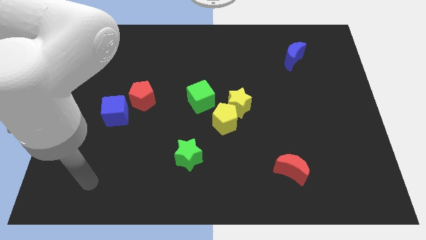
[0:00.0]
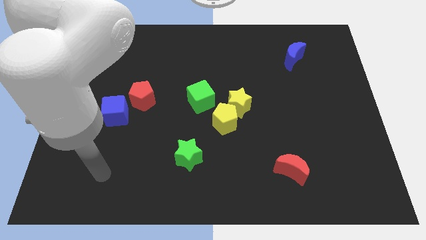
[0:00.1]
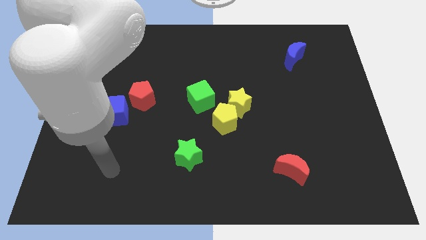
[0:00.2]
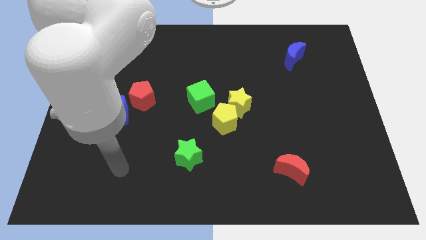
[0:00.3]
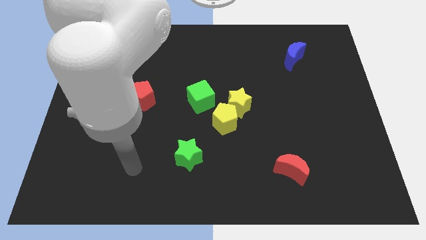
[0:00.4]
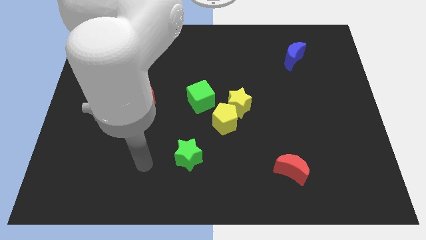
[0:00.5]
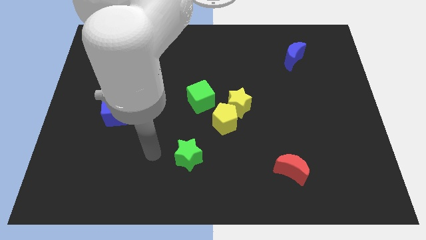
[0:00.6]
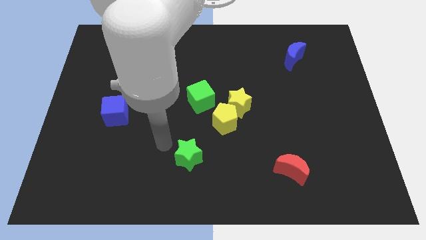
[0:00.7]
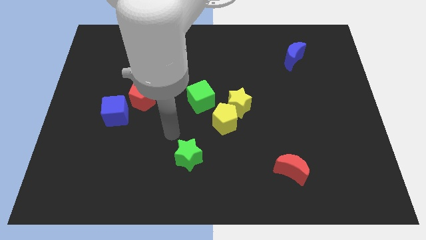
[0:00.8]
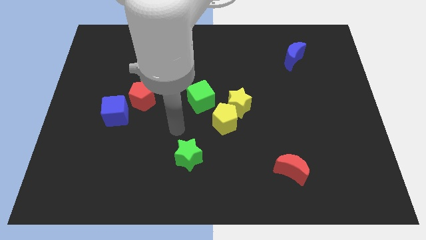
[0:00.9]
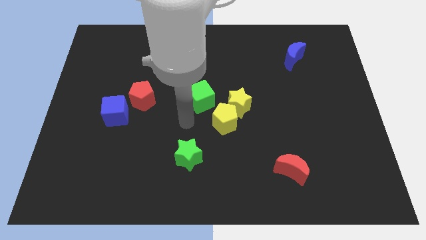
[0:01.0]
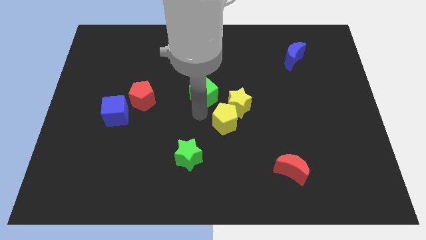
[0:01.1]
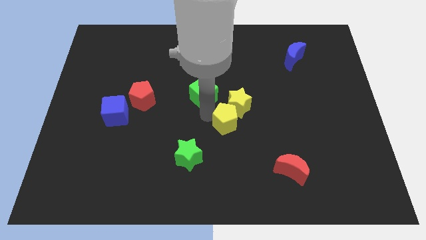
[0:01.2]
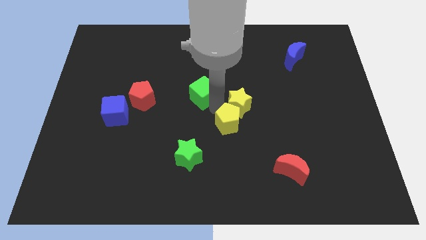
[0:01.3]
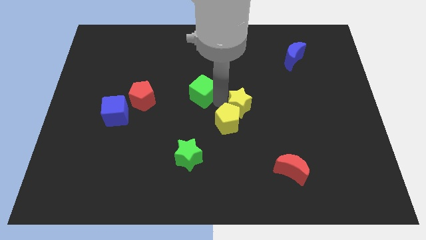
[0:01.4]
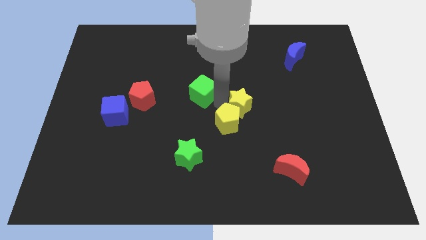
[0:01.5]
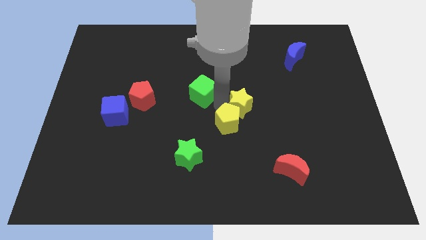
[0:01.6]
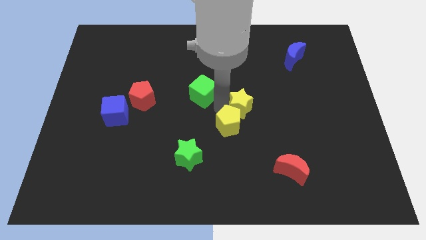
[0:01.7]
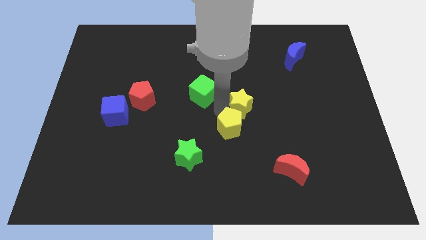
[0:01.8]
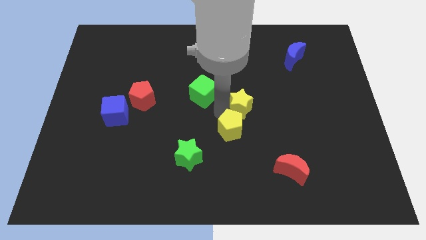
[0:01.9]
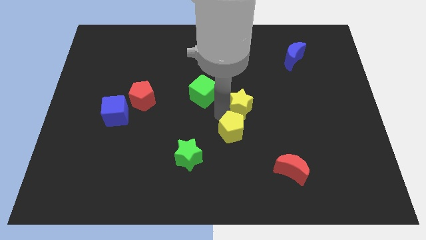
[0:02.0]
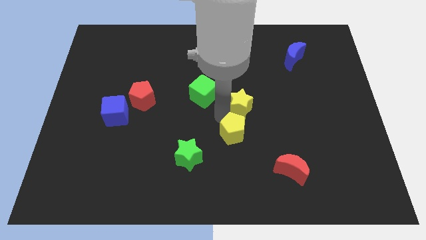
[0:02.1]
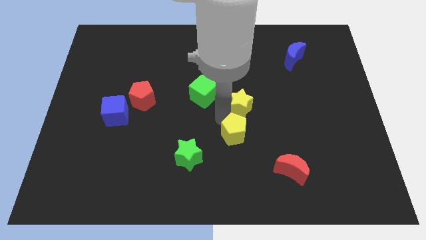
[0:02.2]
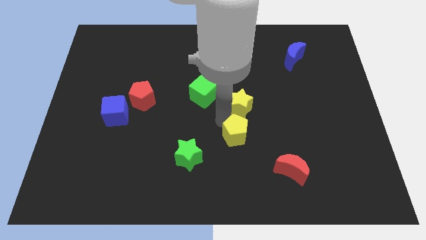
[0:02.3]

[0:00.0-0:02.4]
move the yellow pentagon away from the yellow star and green cube

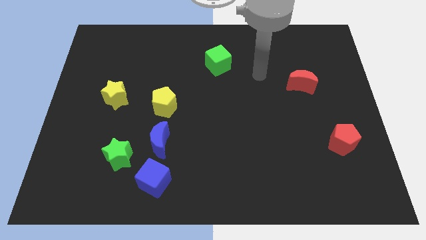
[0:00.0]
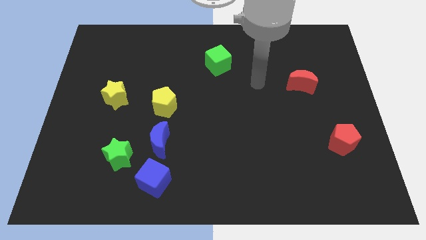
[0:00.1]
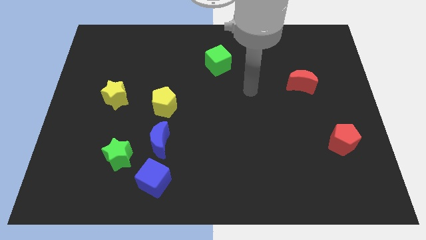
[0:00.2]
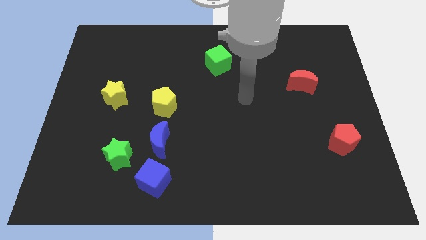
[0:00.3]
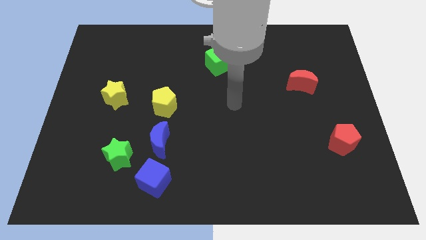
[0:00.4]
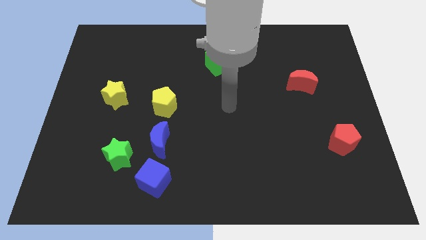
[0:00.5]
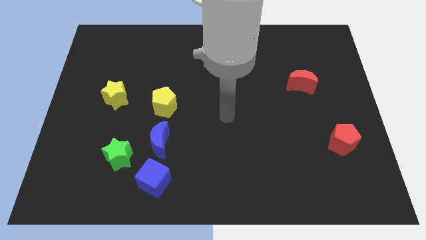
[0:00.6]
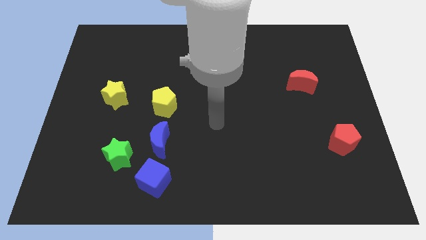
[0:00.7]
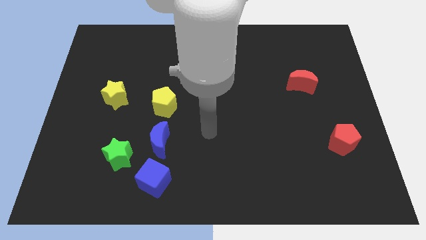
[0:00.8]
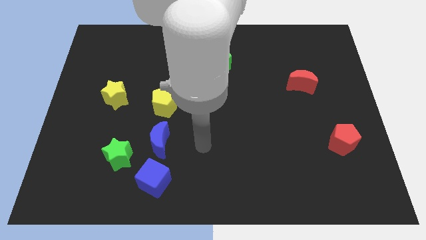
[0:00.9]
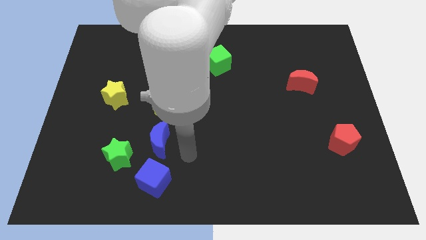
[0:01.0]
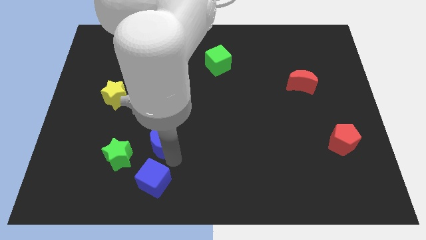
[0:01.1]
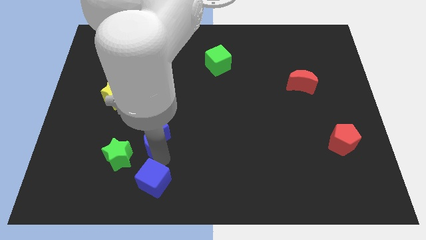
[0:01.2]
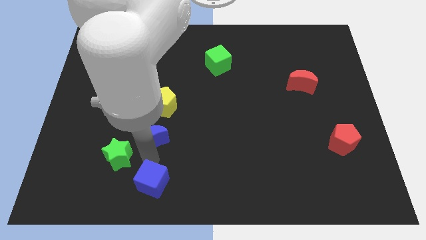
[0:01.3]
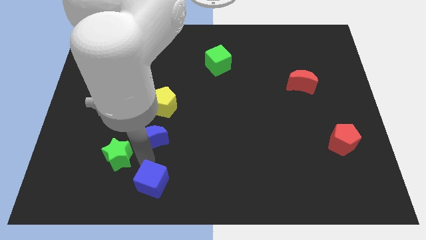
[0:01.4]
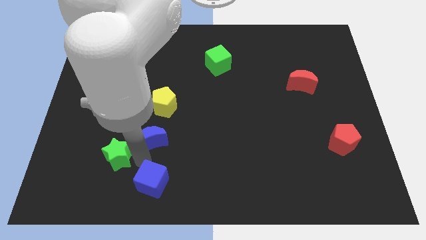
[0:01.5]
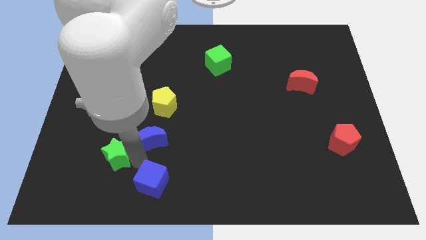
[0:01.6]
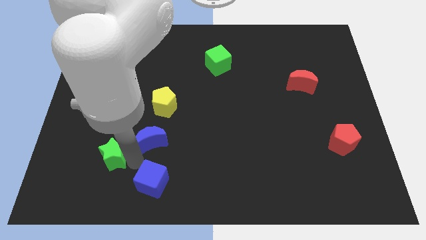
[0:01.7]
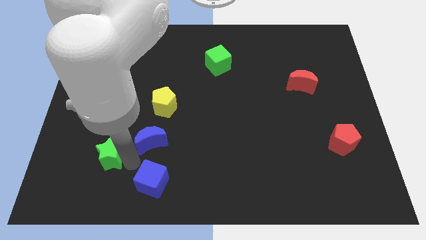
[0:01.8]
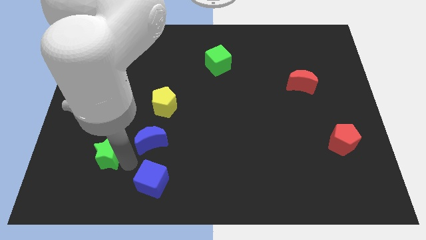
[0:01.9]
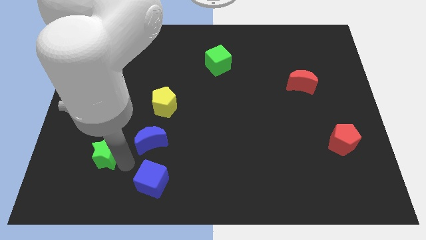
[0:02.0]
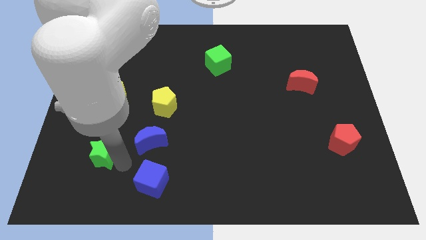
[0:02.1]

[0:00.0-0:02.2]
separate the green star from the blue moon and blue cube

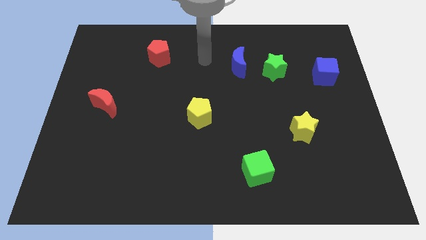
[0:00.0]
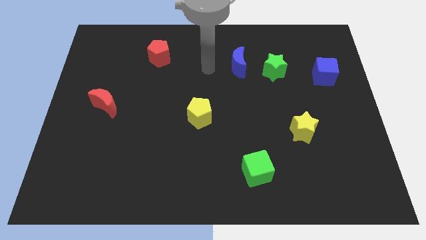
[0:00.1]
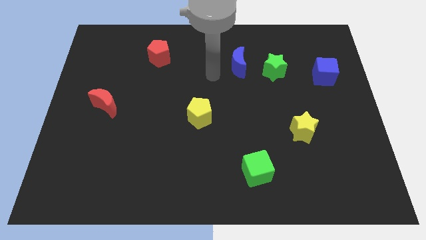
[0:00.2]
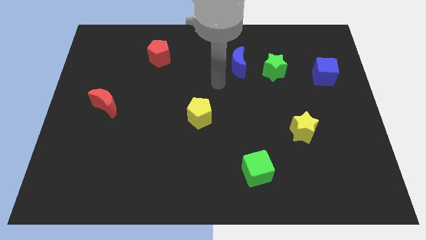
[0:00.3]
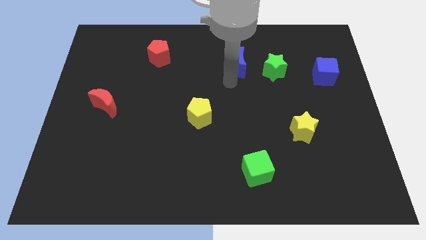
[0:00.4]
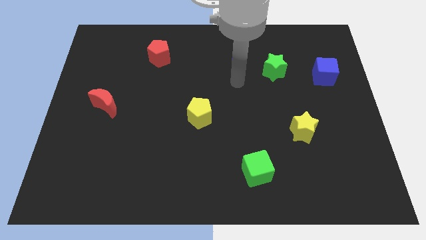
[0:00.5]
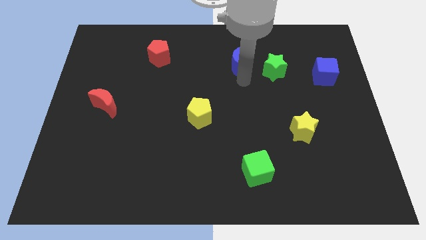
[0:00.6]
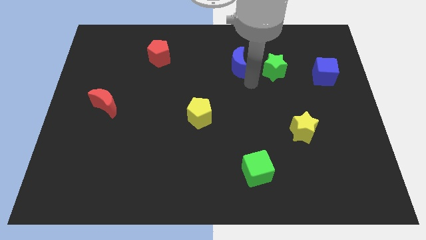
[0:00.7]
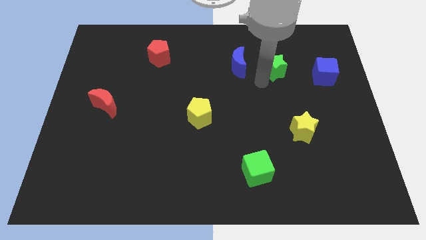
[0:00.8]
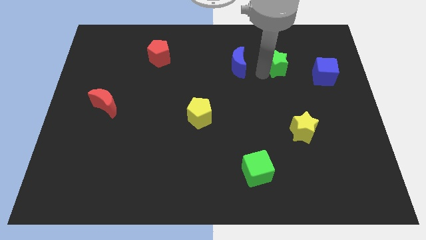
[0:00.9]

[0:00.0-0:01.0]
separate the blue moon from the green star

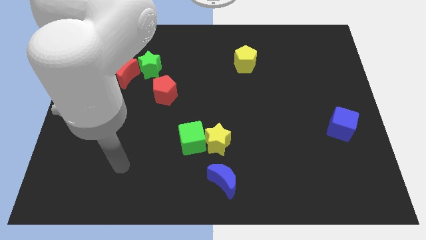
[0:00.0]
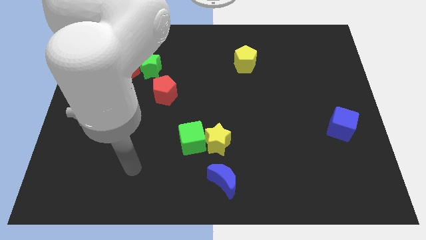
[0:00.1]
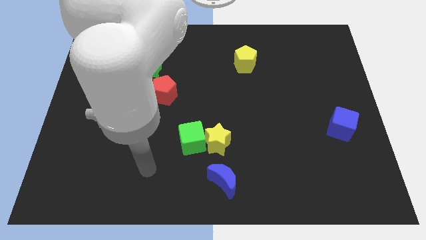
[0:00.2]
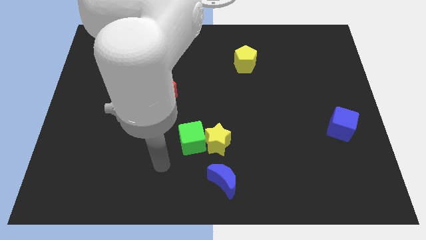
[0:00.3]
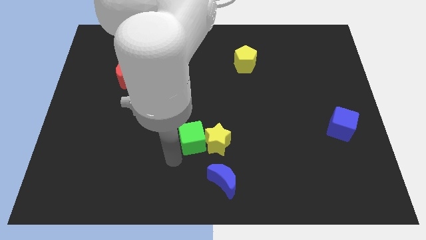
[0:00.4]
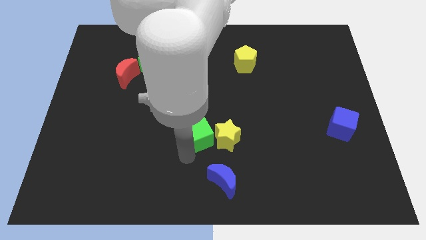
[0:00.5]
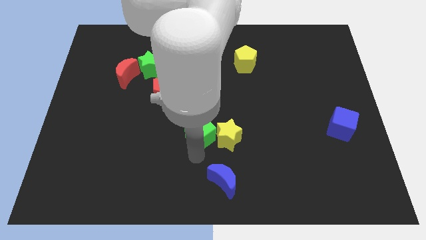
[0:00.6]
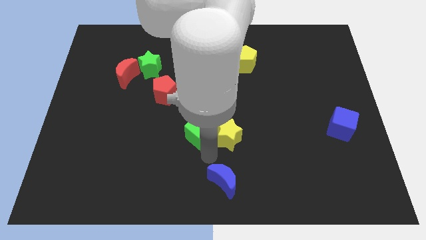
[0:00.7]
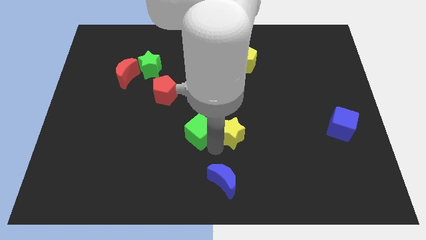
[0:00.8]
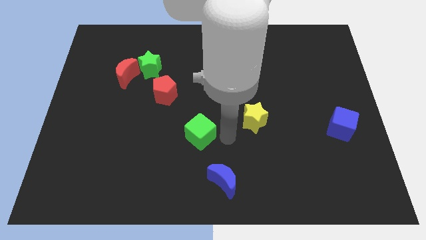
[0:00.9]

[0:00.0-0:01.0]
separate the green cube from the yellow star

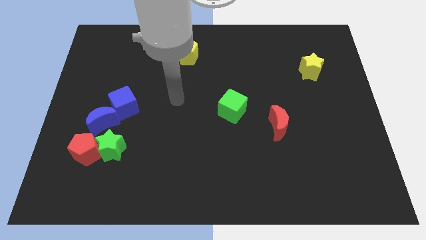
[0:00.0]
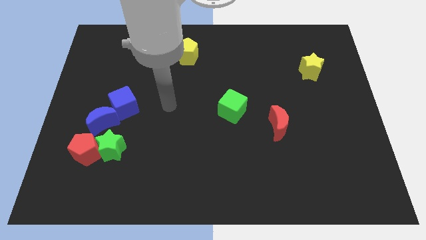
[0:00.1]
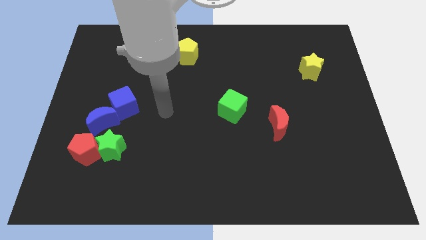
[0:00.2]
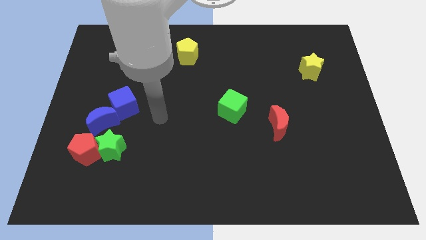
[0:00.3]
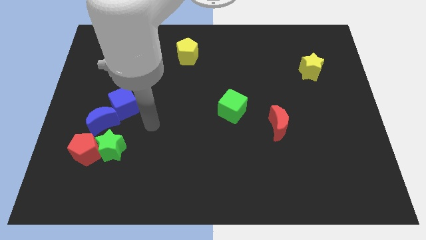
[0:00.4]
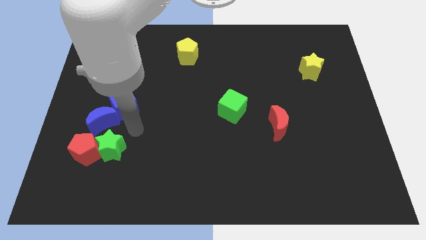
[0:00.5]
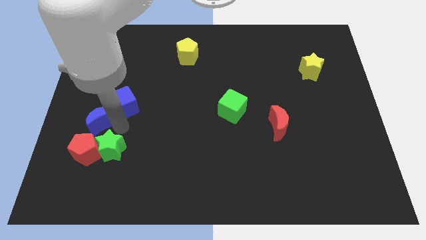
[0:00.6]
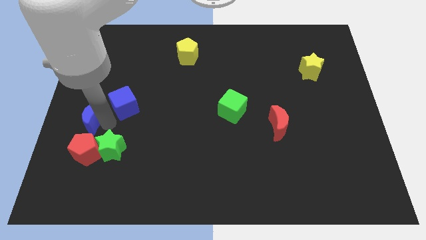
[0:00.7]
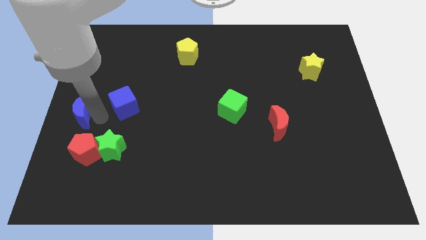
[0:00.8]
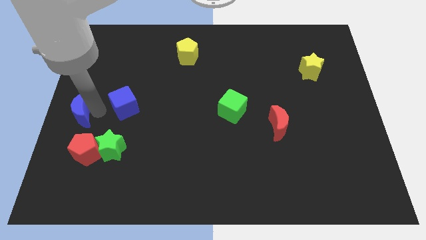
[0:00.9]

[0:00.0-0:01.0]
move the blue cube away from the blue moon

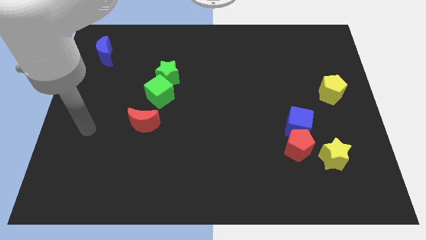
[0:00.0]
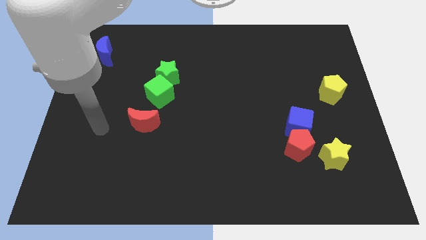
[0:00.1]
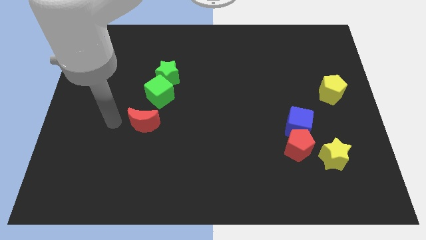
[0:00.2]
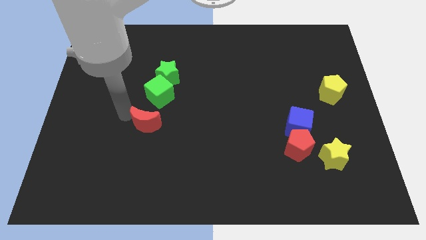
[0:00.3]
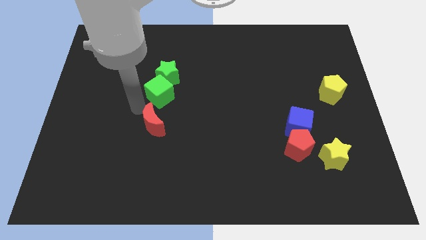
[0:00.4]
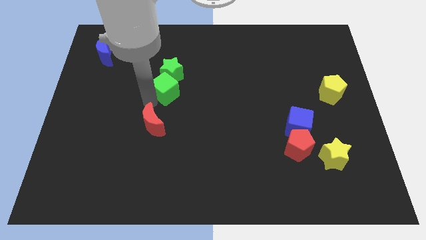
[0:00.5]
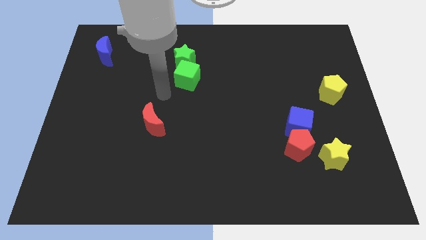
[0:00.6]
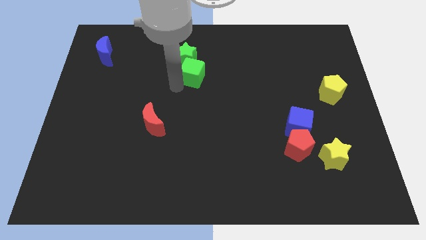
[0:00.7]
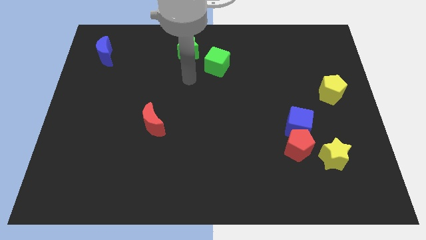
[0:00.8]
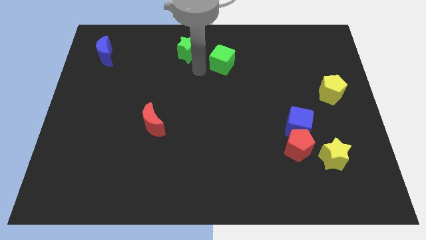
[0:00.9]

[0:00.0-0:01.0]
move the green star away from the green cube

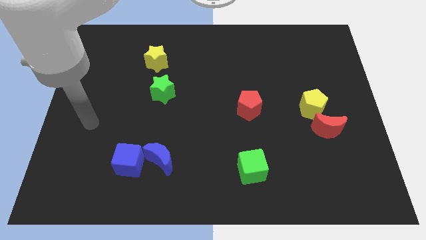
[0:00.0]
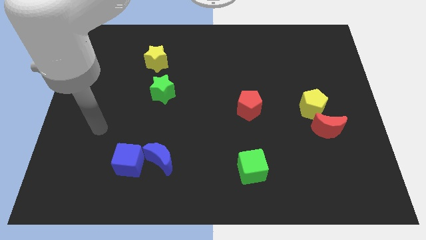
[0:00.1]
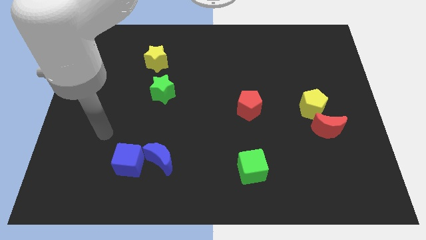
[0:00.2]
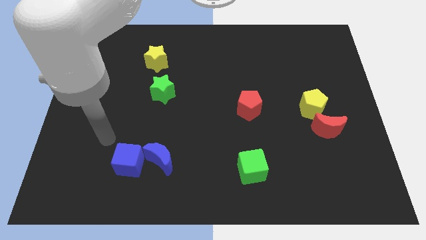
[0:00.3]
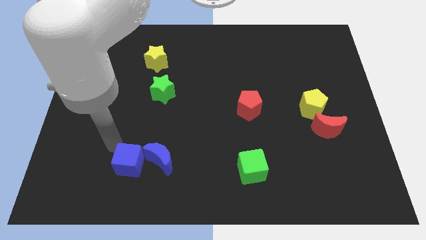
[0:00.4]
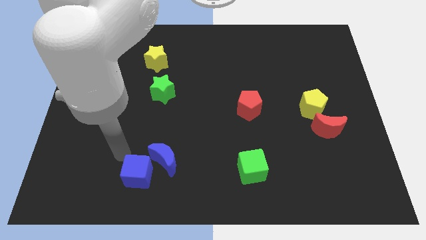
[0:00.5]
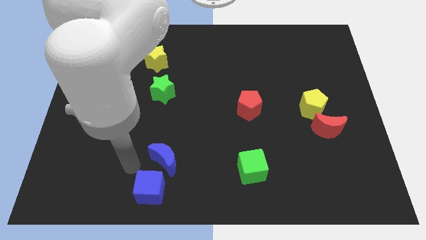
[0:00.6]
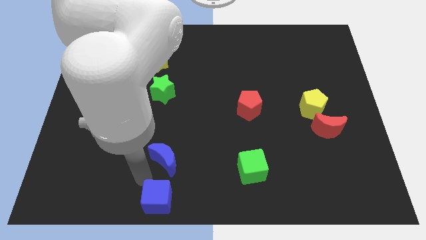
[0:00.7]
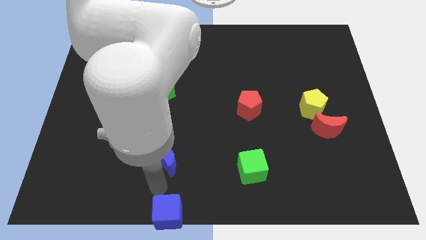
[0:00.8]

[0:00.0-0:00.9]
pull the blue moon apart from the blue cube
